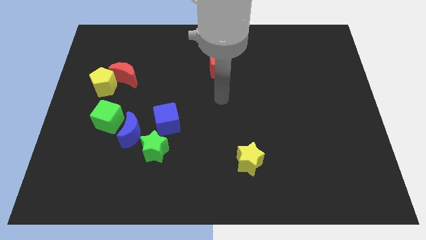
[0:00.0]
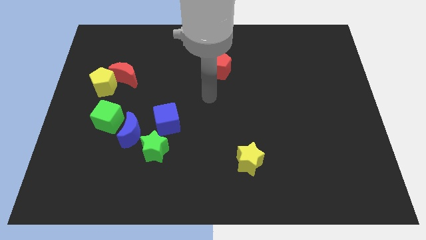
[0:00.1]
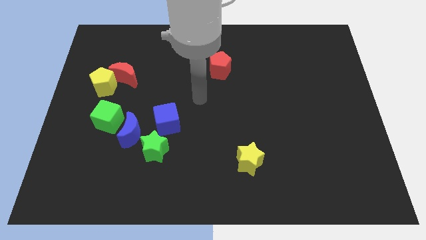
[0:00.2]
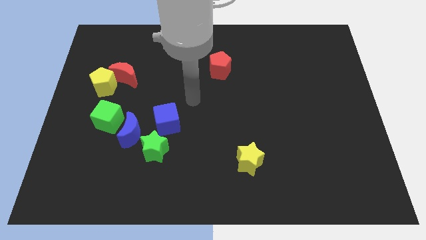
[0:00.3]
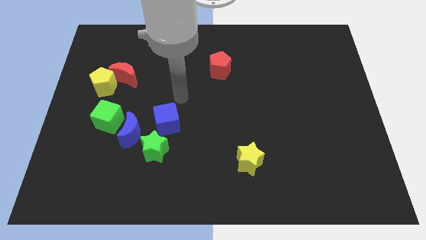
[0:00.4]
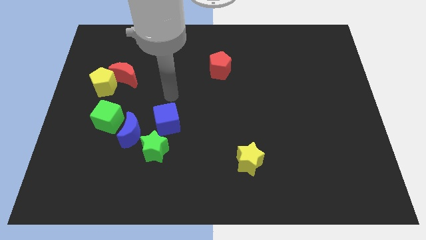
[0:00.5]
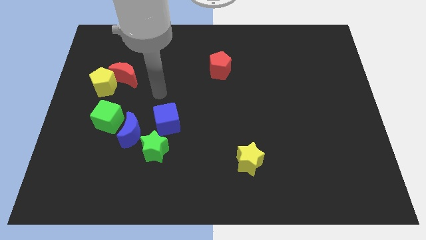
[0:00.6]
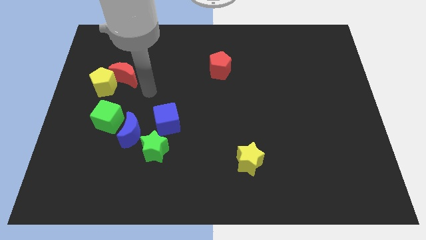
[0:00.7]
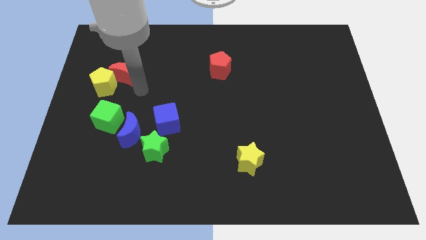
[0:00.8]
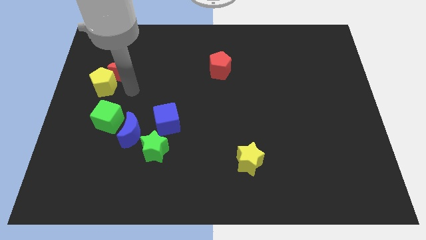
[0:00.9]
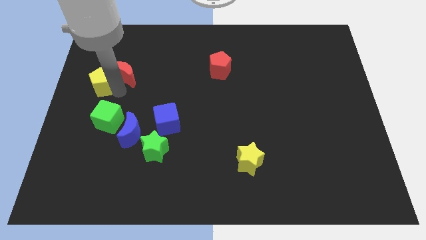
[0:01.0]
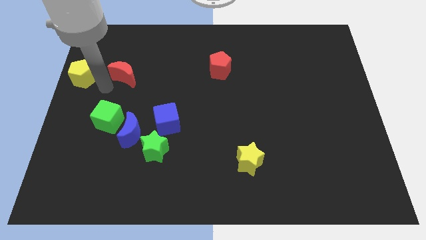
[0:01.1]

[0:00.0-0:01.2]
move the red moon away from the yellow pentagon

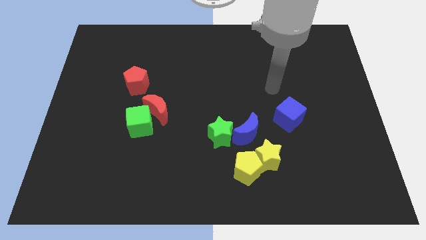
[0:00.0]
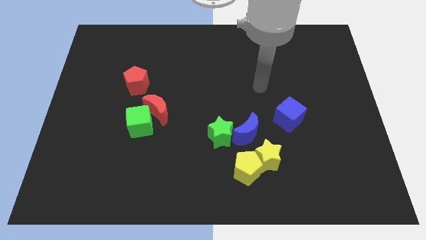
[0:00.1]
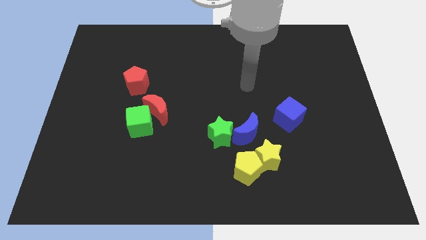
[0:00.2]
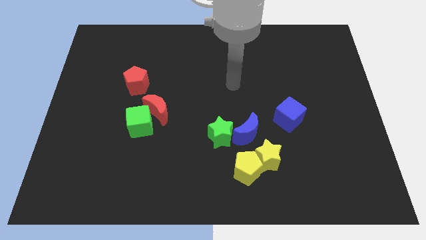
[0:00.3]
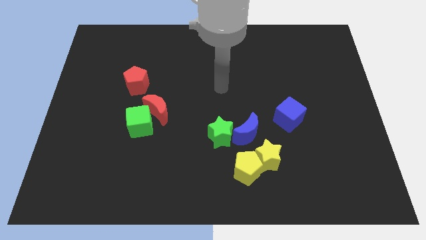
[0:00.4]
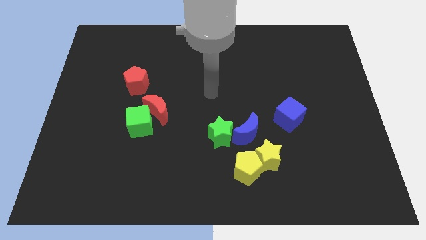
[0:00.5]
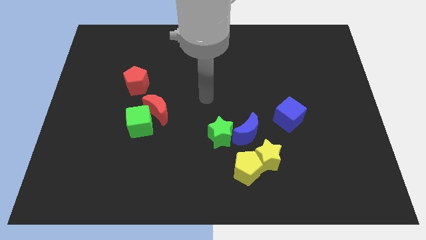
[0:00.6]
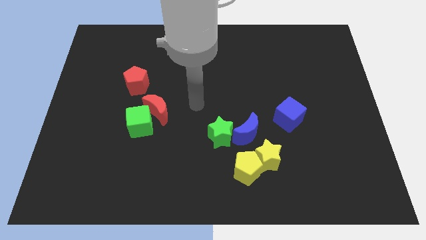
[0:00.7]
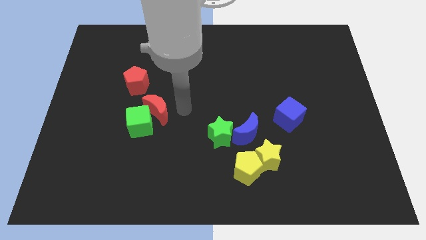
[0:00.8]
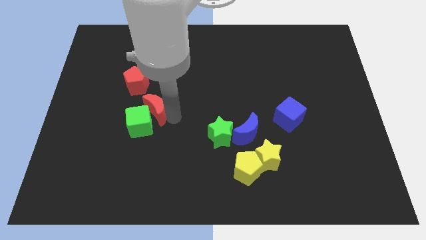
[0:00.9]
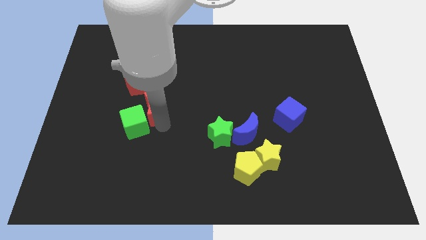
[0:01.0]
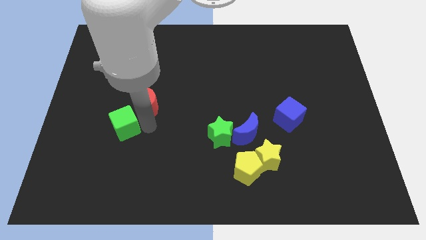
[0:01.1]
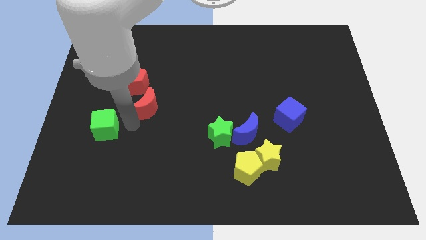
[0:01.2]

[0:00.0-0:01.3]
pull the red moon apart from the green cube

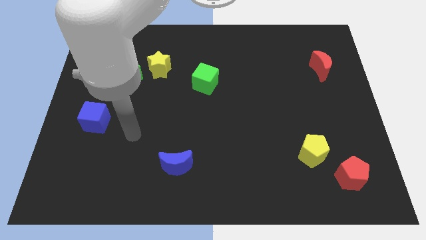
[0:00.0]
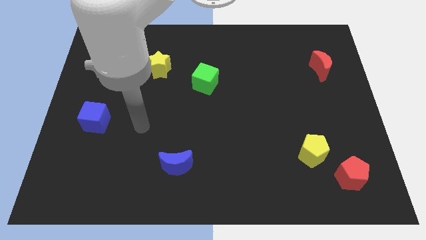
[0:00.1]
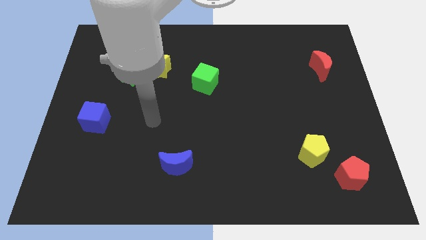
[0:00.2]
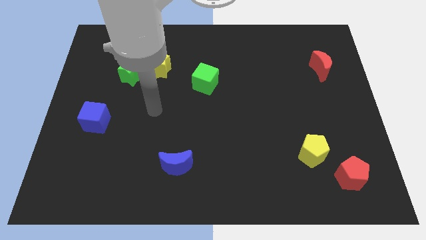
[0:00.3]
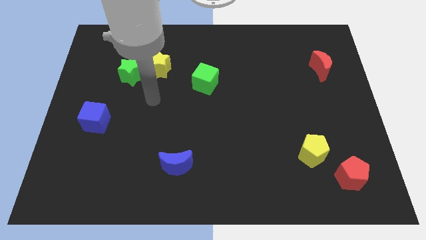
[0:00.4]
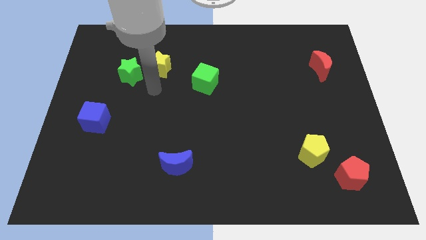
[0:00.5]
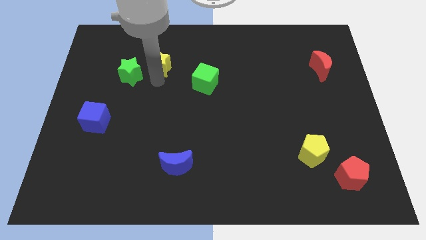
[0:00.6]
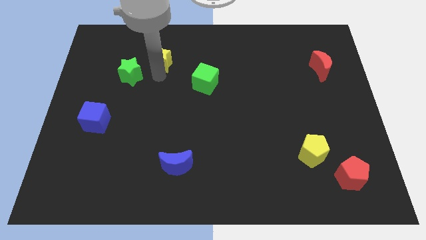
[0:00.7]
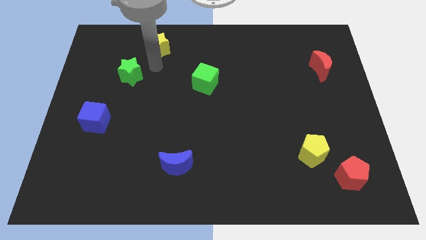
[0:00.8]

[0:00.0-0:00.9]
pull the green star apart from the yellow star

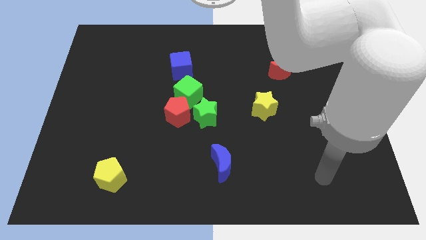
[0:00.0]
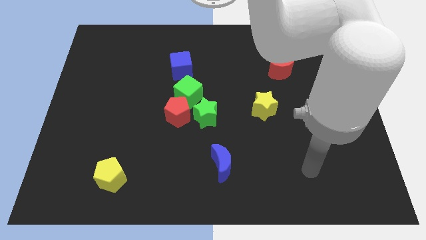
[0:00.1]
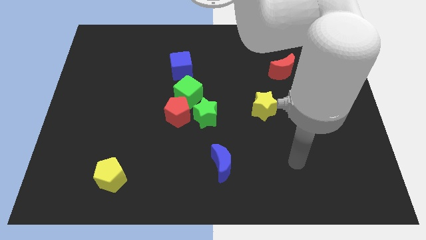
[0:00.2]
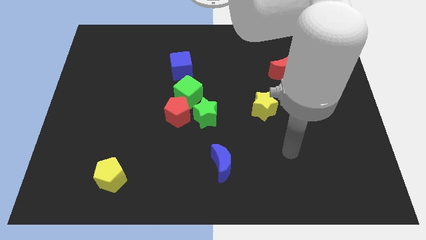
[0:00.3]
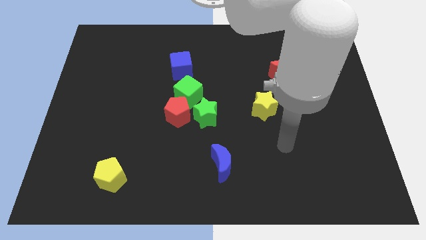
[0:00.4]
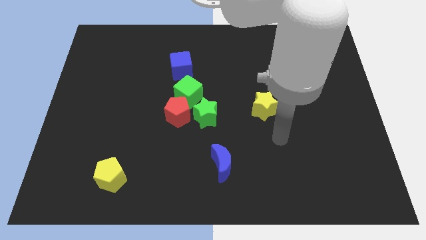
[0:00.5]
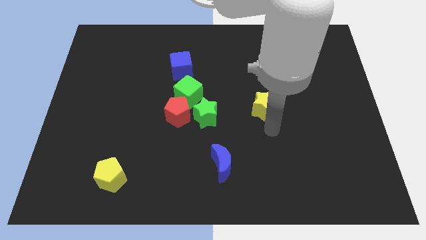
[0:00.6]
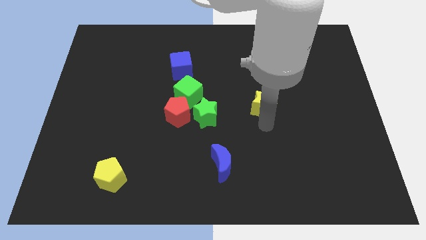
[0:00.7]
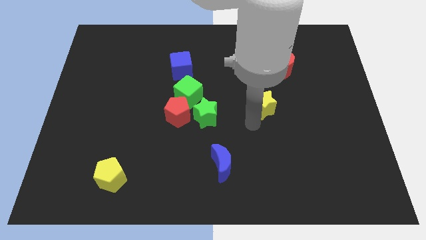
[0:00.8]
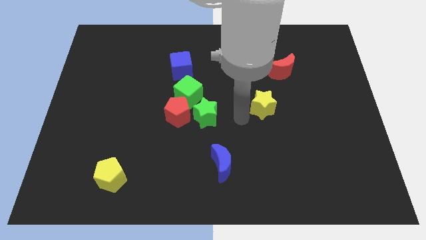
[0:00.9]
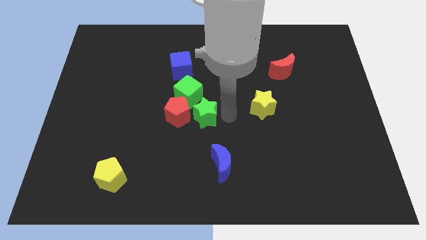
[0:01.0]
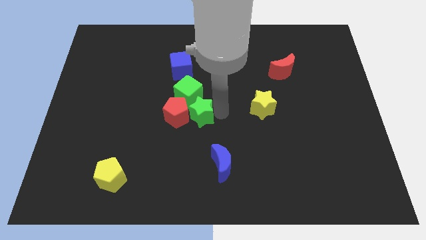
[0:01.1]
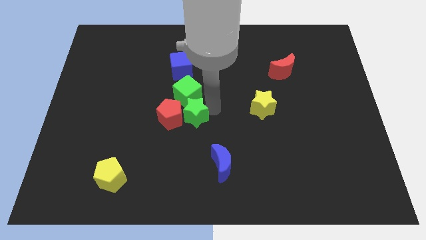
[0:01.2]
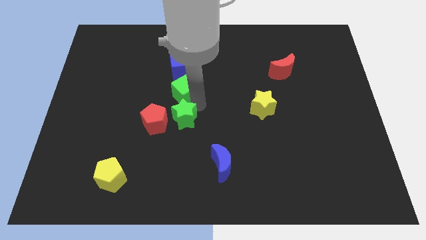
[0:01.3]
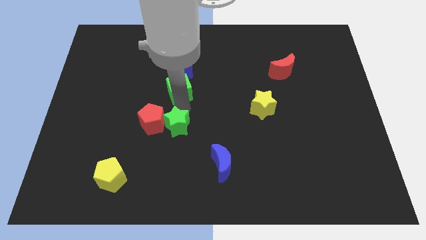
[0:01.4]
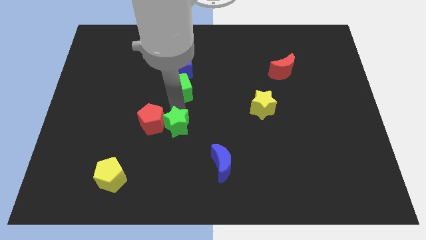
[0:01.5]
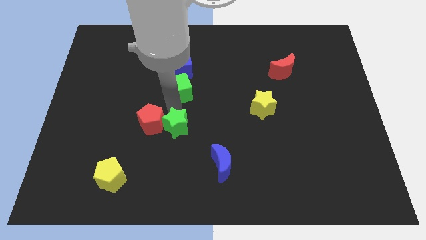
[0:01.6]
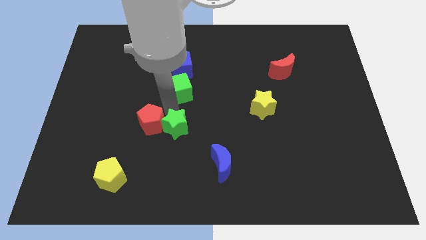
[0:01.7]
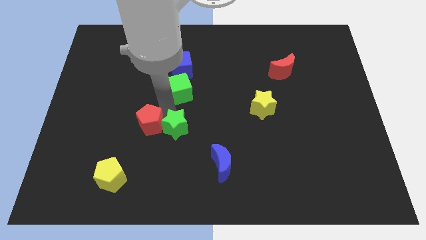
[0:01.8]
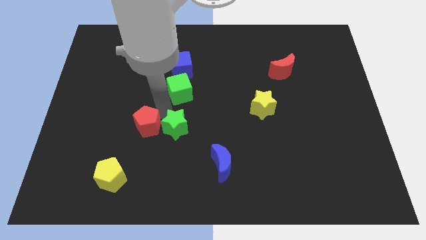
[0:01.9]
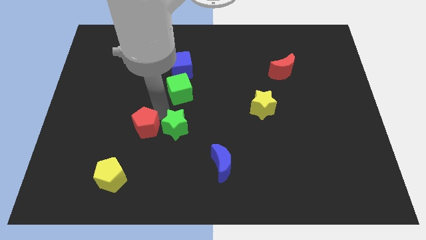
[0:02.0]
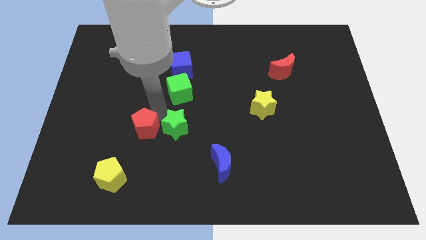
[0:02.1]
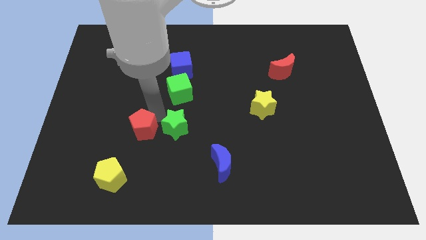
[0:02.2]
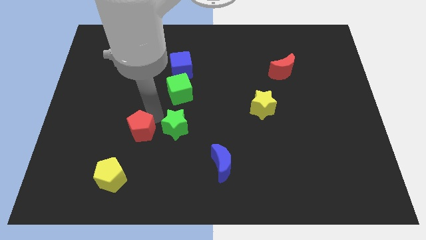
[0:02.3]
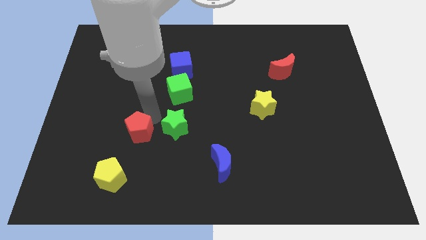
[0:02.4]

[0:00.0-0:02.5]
pull the red pentagon apart from the green cube and green star

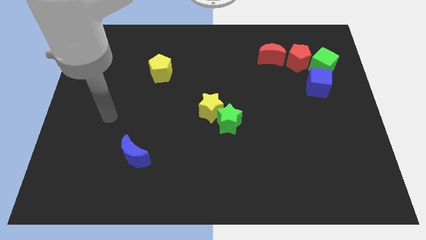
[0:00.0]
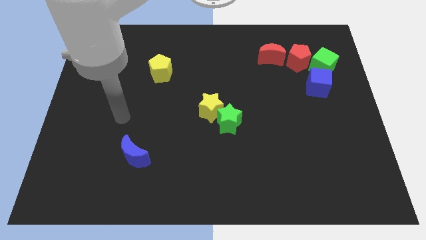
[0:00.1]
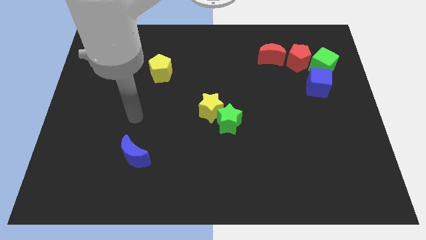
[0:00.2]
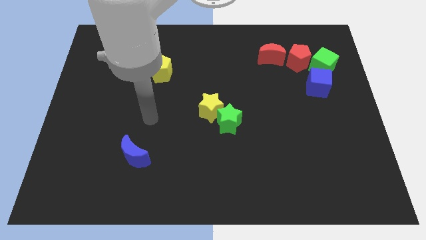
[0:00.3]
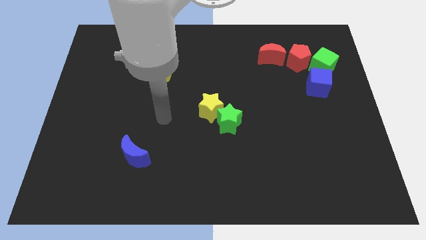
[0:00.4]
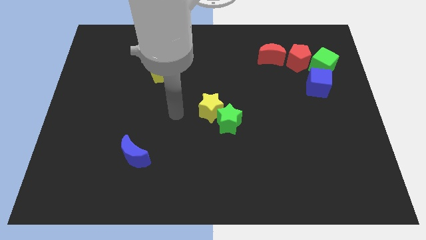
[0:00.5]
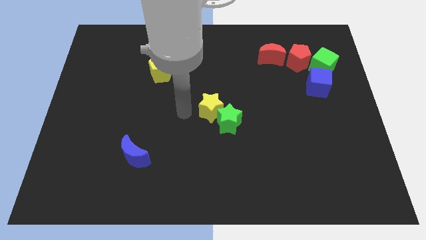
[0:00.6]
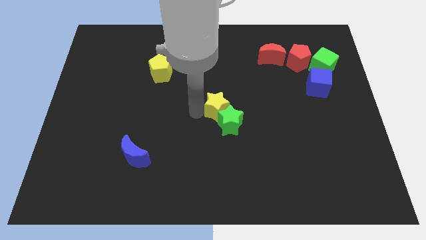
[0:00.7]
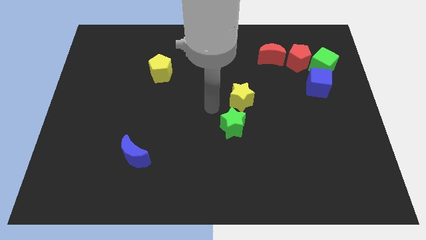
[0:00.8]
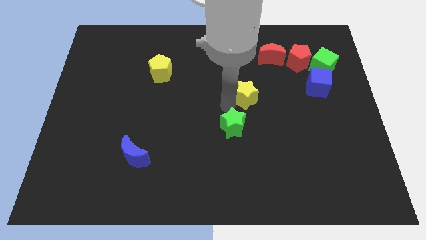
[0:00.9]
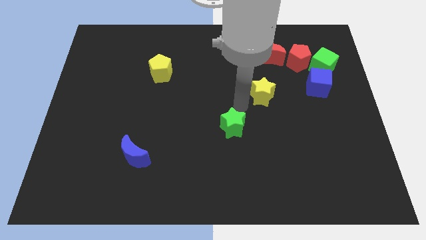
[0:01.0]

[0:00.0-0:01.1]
move the green star away from the yellow star

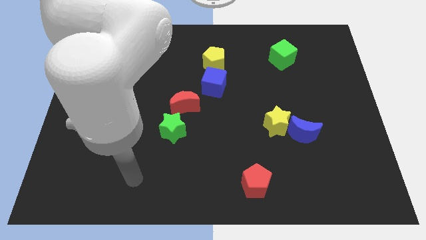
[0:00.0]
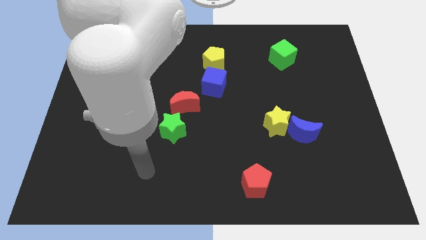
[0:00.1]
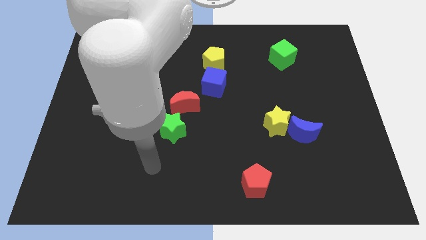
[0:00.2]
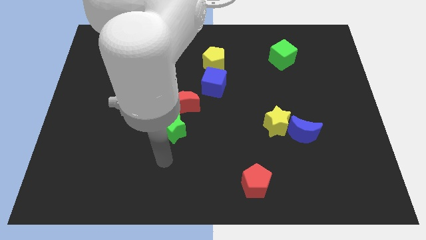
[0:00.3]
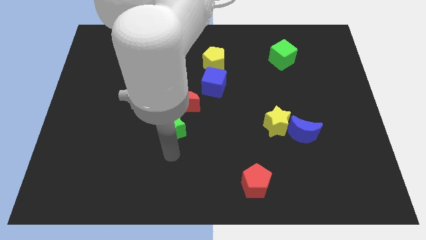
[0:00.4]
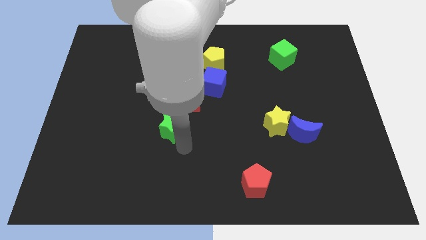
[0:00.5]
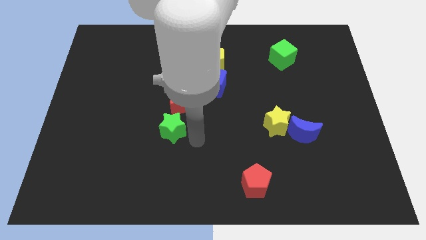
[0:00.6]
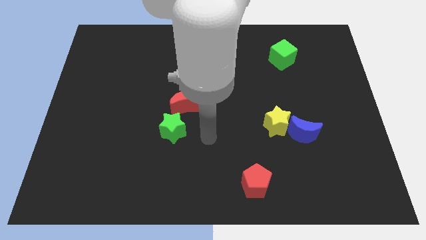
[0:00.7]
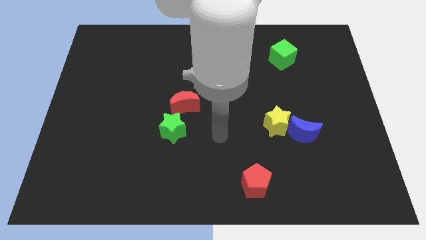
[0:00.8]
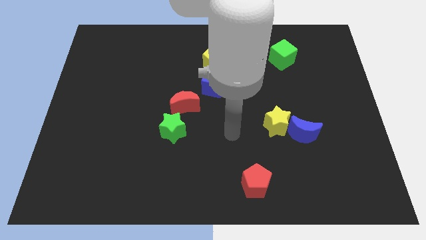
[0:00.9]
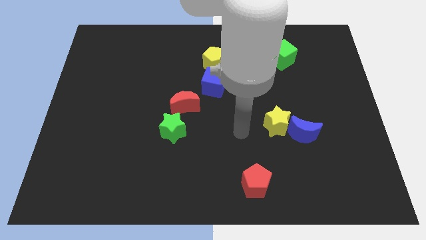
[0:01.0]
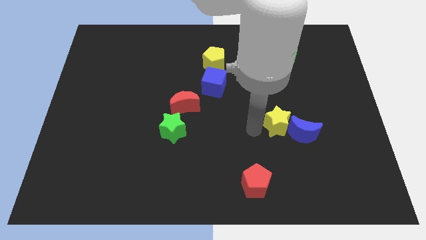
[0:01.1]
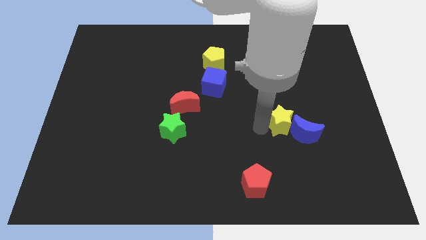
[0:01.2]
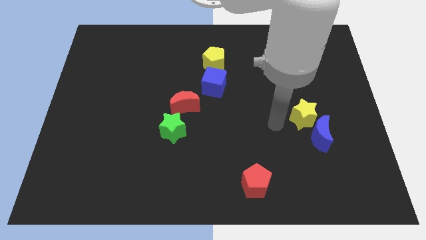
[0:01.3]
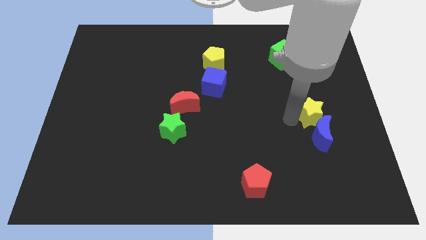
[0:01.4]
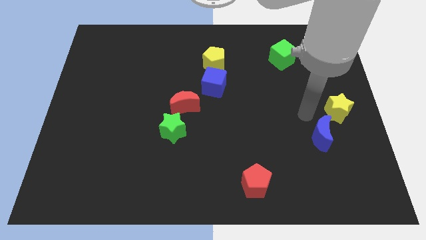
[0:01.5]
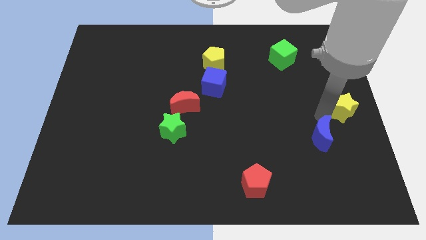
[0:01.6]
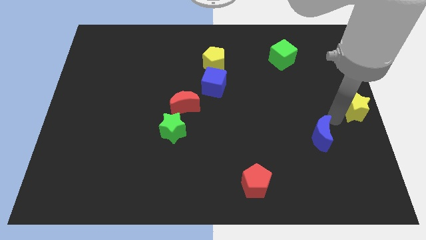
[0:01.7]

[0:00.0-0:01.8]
separate the blue moon from the yellow star

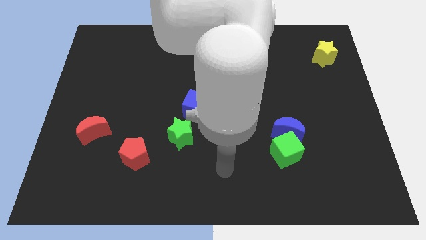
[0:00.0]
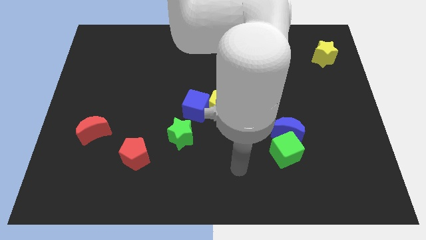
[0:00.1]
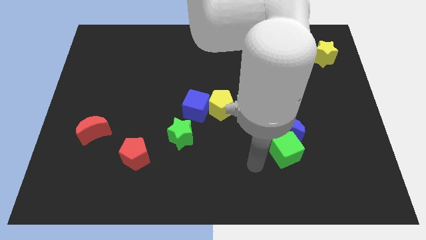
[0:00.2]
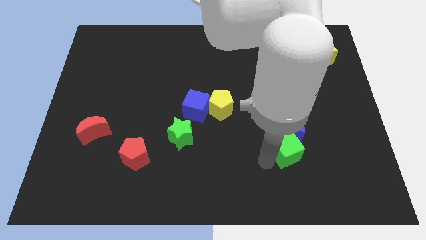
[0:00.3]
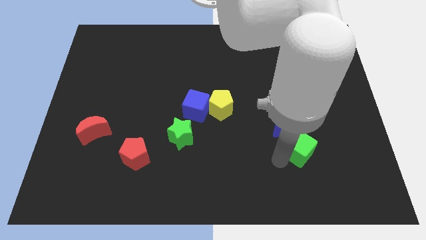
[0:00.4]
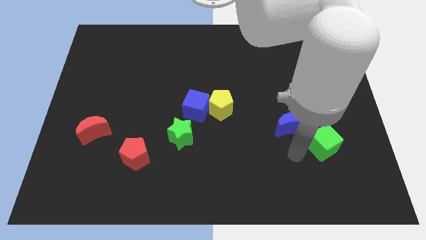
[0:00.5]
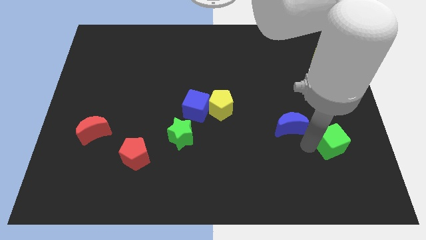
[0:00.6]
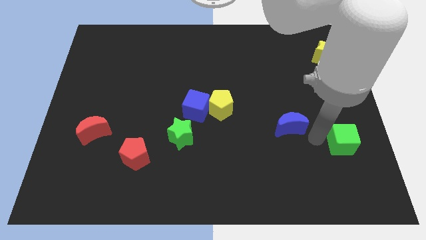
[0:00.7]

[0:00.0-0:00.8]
move the blue moon away from the green cube
